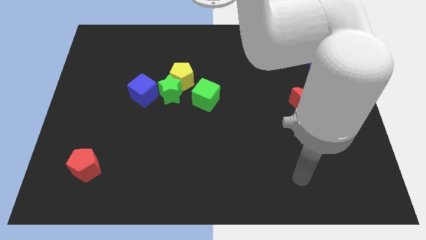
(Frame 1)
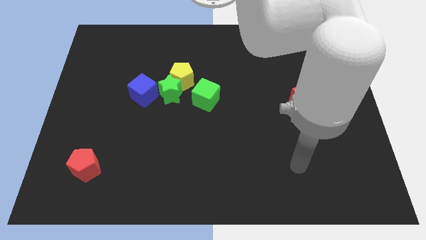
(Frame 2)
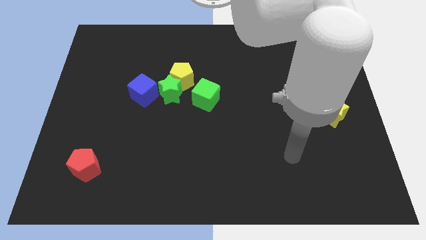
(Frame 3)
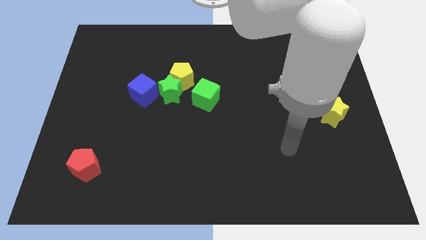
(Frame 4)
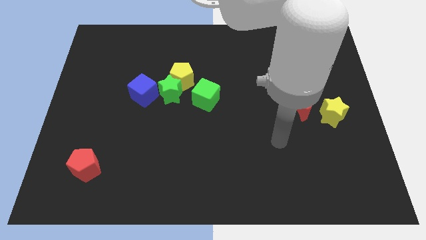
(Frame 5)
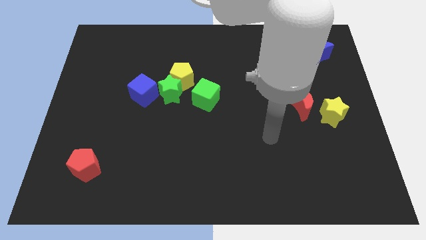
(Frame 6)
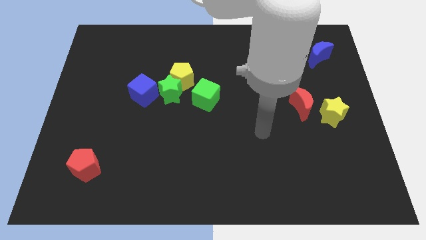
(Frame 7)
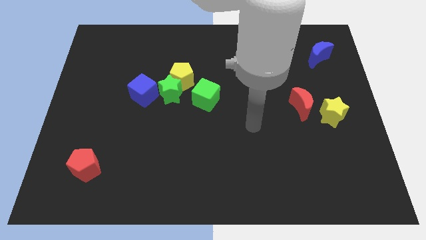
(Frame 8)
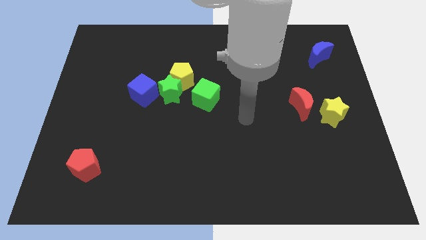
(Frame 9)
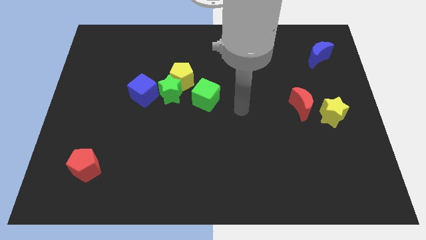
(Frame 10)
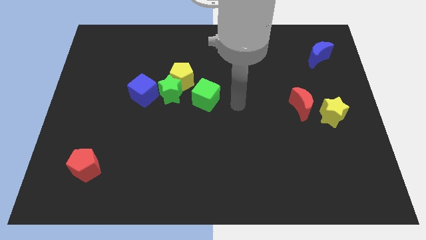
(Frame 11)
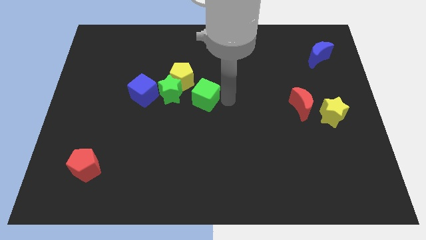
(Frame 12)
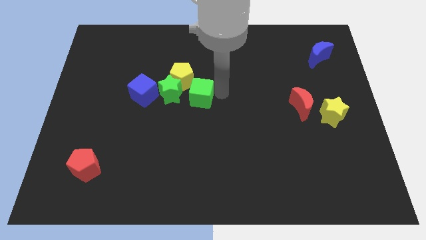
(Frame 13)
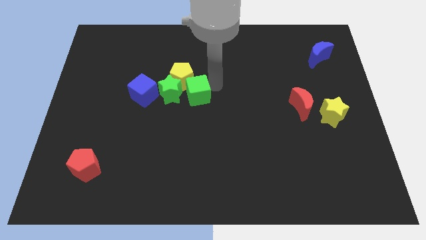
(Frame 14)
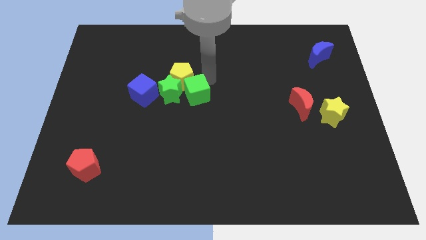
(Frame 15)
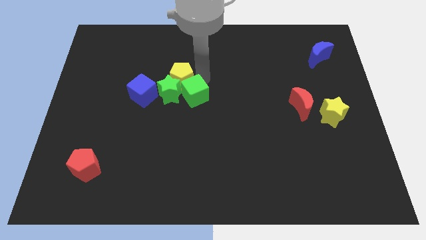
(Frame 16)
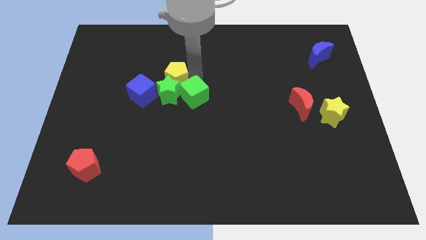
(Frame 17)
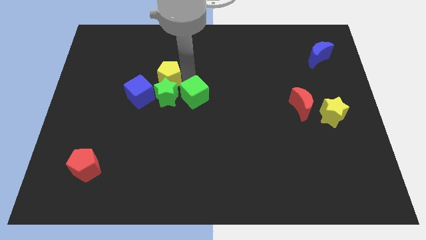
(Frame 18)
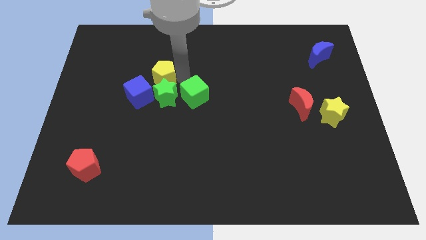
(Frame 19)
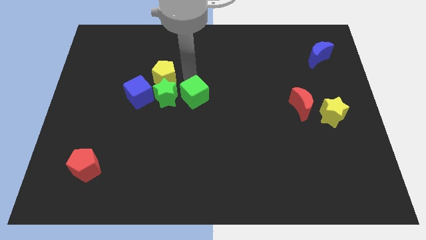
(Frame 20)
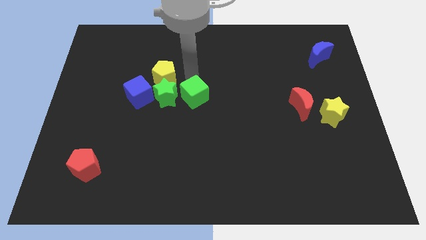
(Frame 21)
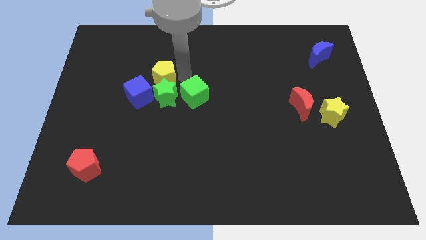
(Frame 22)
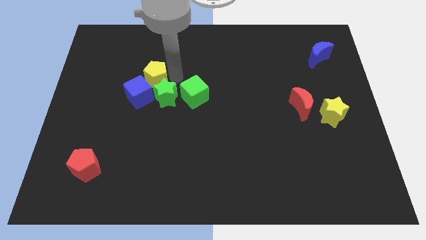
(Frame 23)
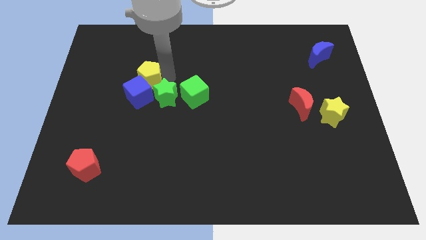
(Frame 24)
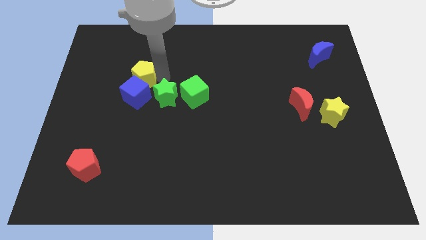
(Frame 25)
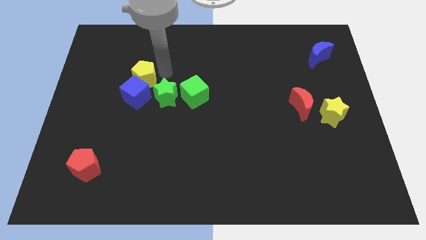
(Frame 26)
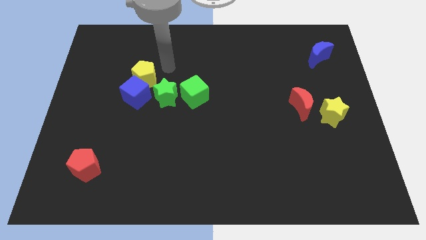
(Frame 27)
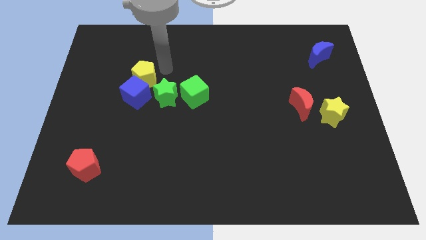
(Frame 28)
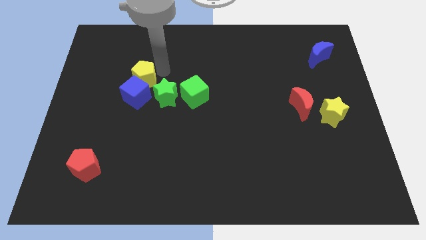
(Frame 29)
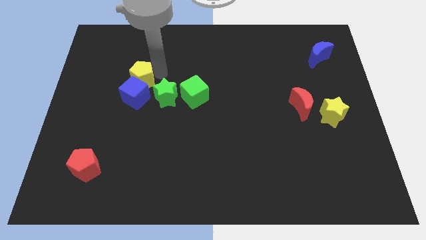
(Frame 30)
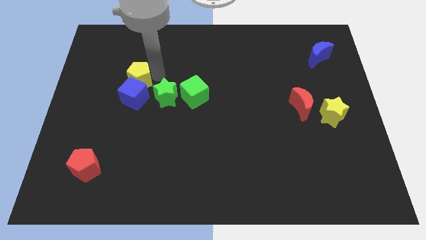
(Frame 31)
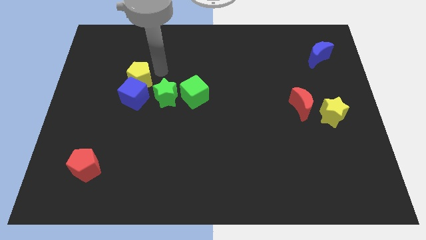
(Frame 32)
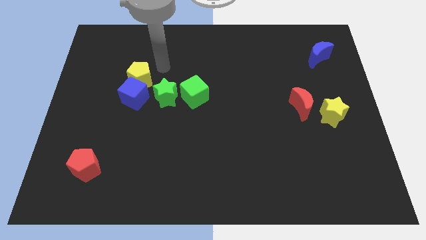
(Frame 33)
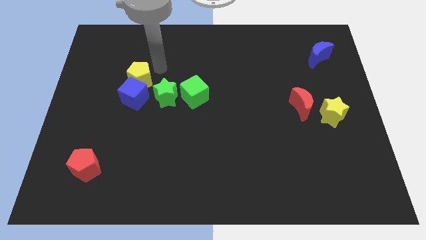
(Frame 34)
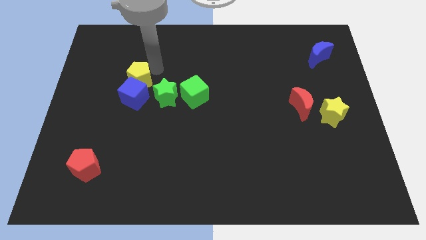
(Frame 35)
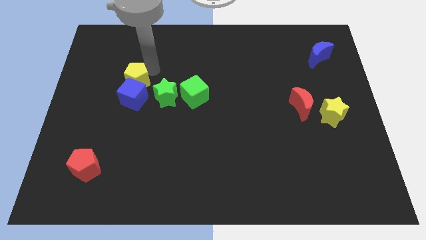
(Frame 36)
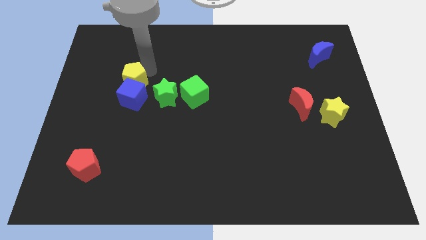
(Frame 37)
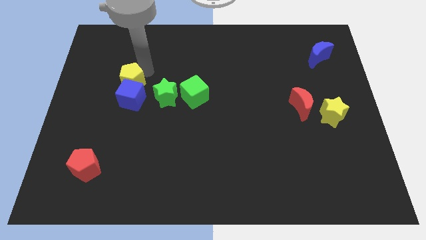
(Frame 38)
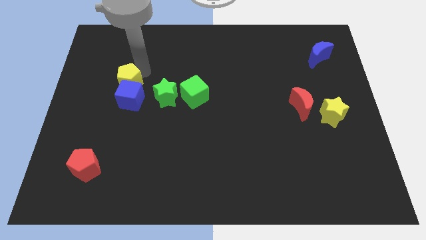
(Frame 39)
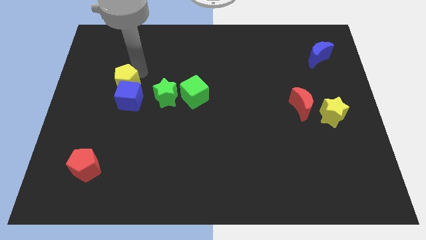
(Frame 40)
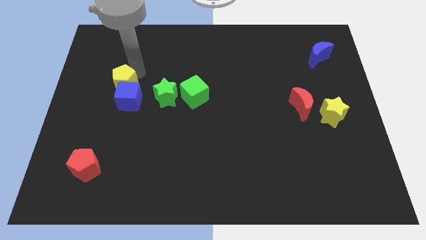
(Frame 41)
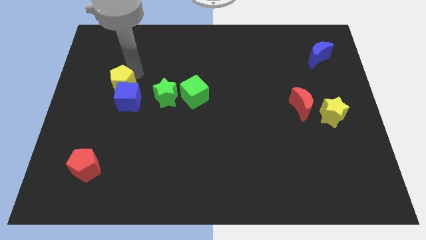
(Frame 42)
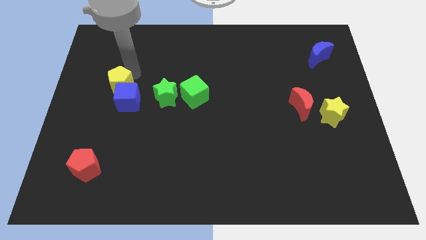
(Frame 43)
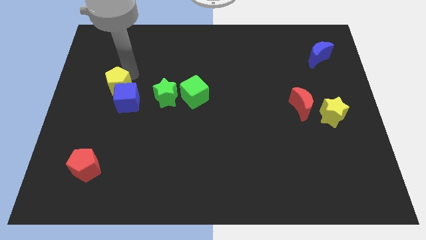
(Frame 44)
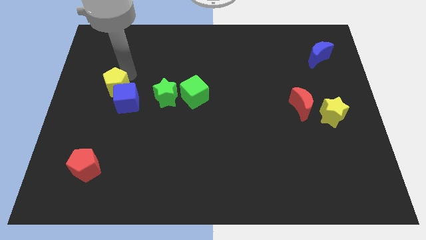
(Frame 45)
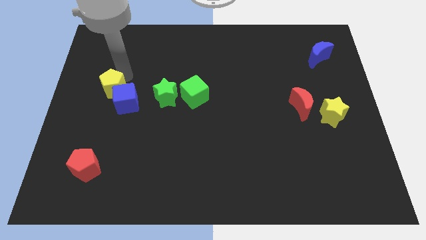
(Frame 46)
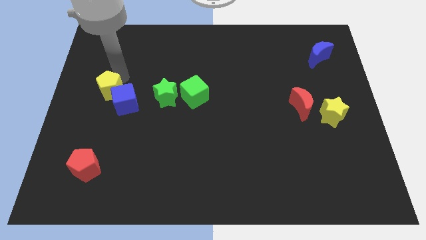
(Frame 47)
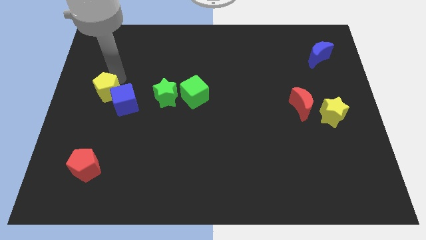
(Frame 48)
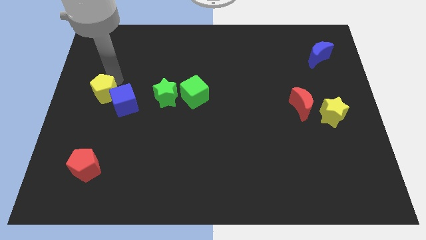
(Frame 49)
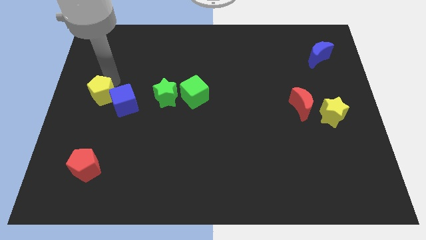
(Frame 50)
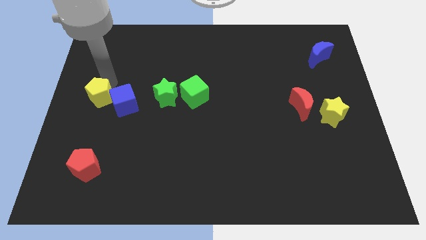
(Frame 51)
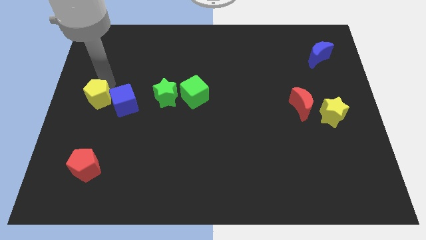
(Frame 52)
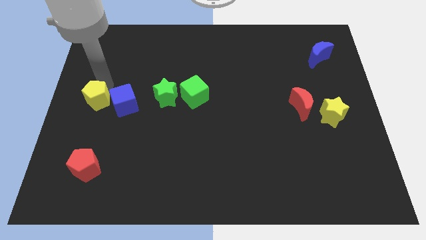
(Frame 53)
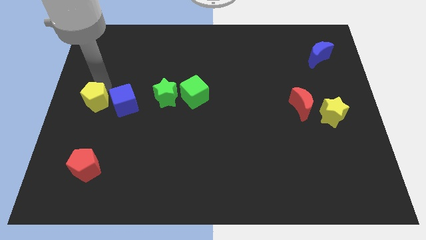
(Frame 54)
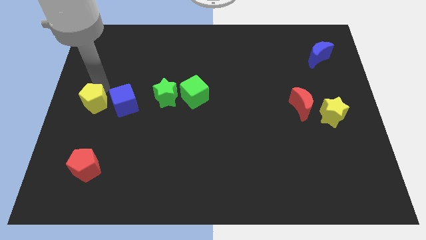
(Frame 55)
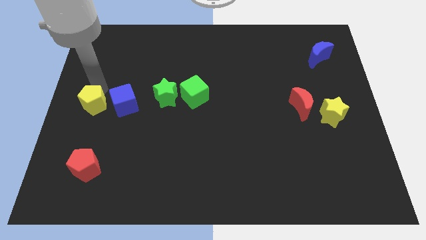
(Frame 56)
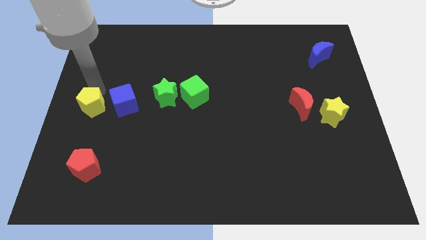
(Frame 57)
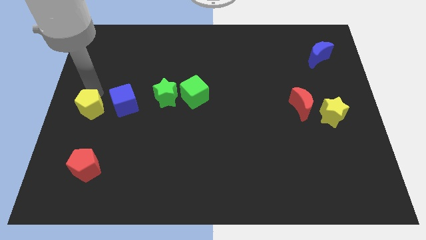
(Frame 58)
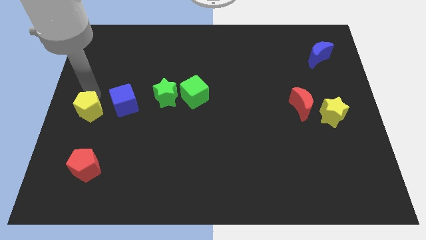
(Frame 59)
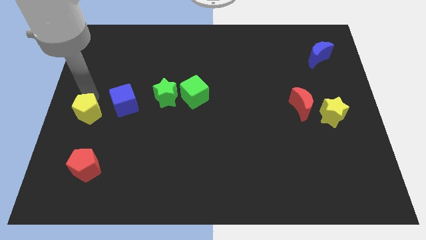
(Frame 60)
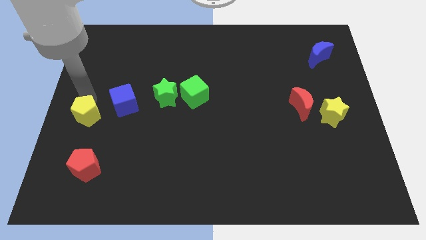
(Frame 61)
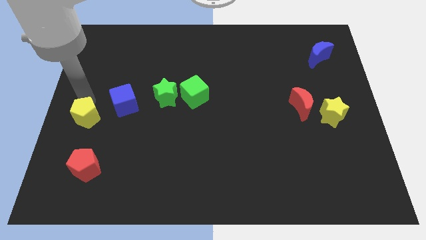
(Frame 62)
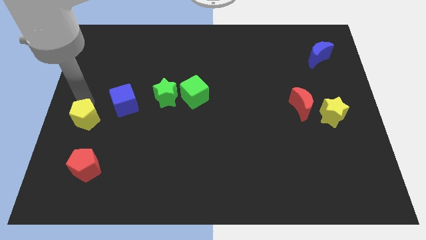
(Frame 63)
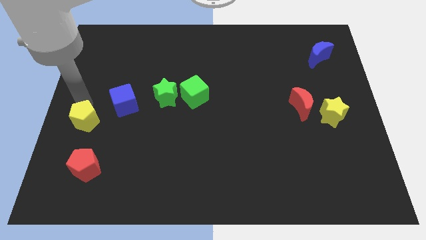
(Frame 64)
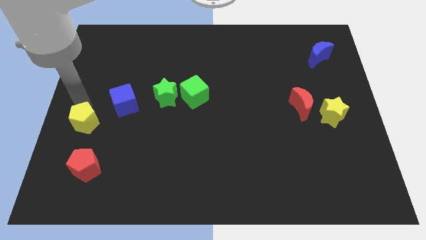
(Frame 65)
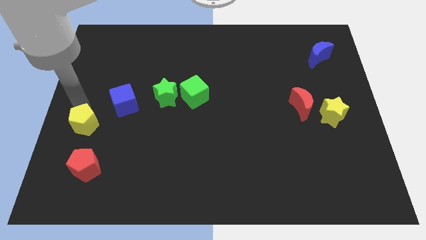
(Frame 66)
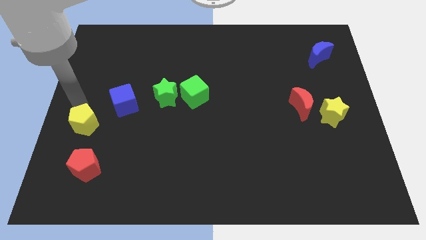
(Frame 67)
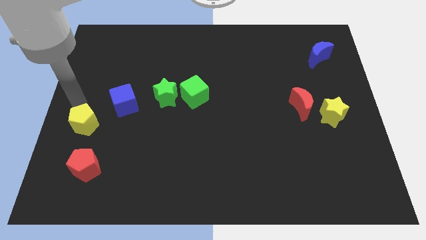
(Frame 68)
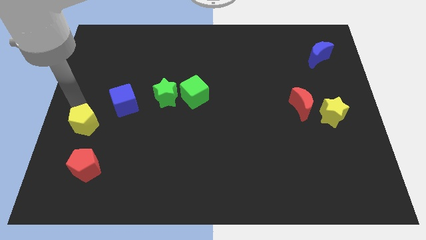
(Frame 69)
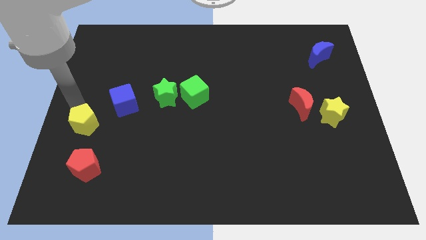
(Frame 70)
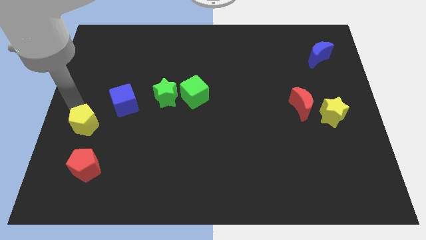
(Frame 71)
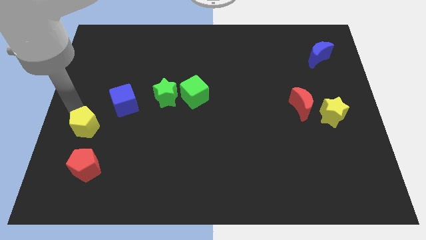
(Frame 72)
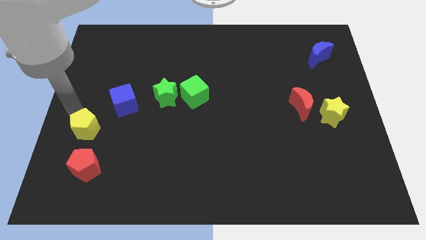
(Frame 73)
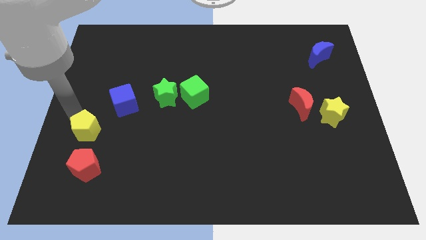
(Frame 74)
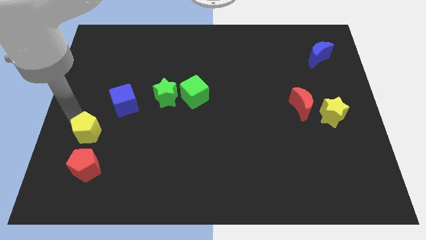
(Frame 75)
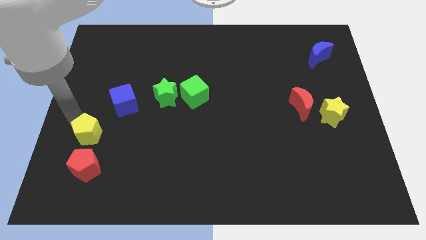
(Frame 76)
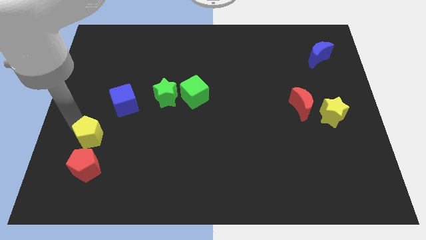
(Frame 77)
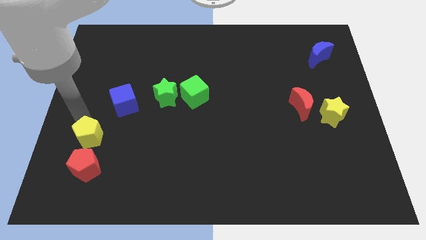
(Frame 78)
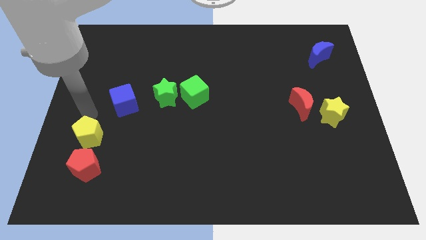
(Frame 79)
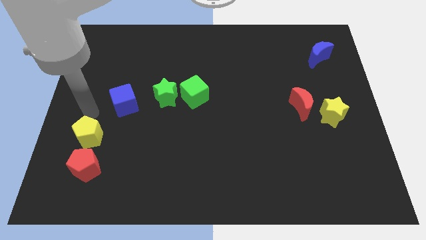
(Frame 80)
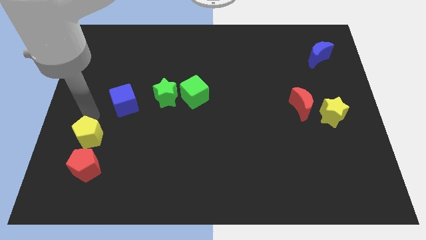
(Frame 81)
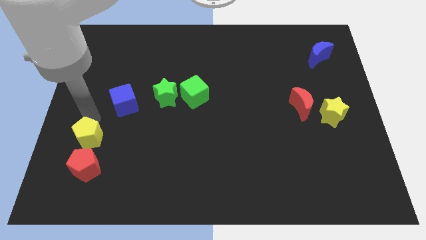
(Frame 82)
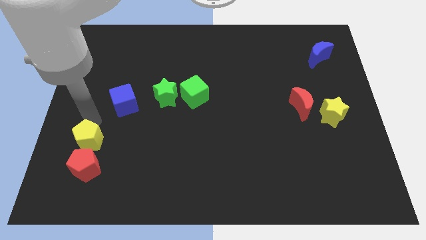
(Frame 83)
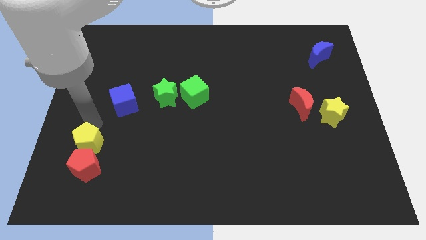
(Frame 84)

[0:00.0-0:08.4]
move the yellow pentagon close to the red pentagon
